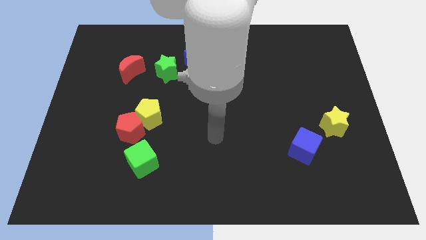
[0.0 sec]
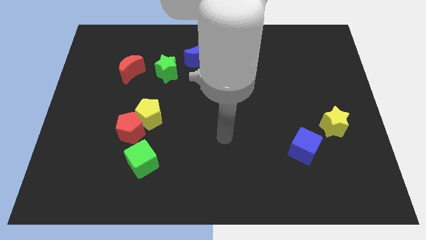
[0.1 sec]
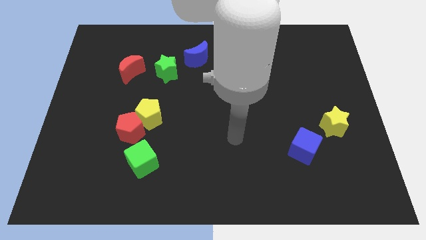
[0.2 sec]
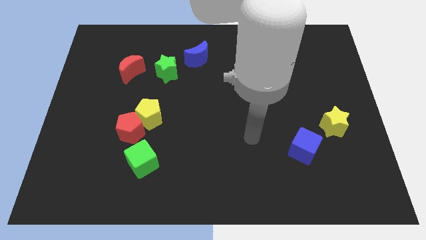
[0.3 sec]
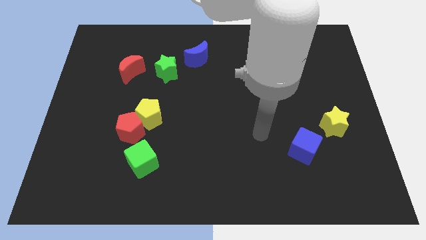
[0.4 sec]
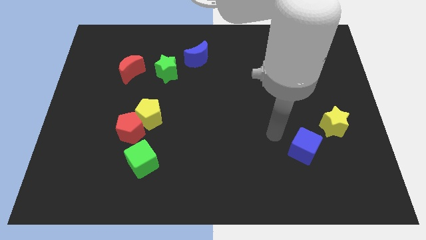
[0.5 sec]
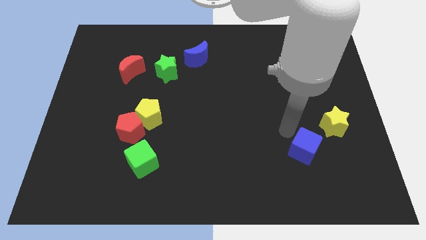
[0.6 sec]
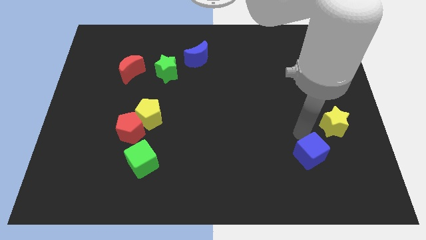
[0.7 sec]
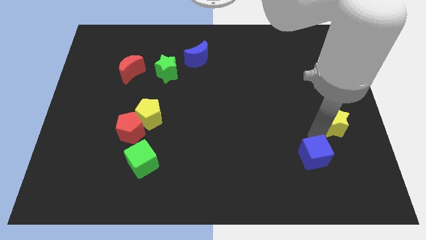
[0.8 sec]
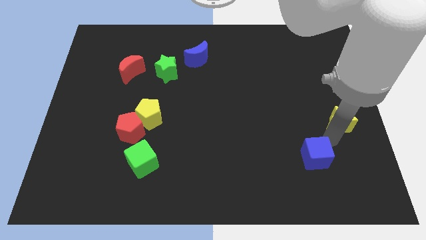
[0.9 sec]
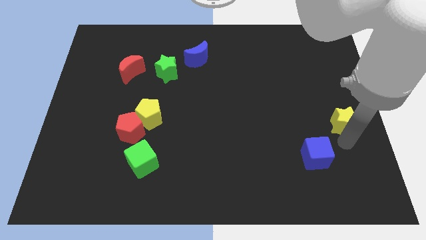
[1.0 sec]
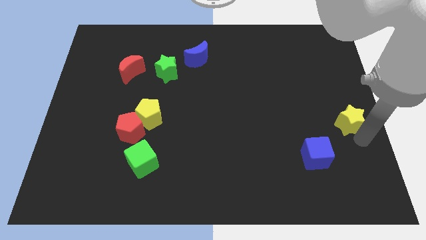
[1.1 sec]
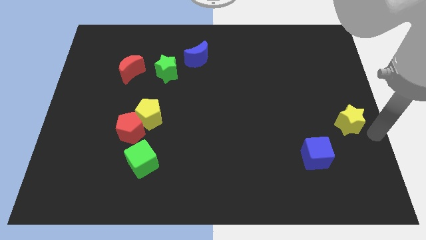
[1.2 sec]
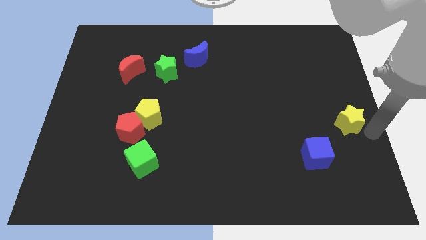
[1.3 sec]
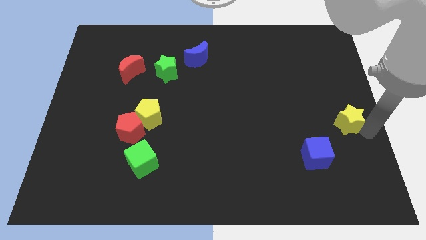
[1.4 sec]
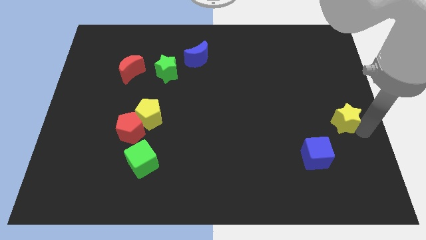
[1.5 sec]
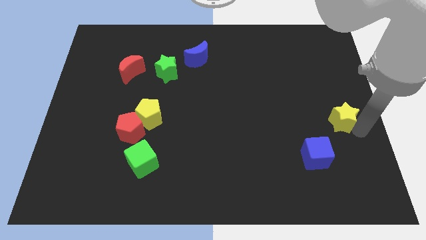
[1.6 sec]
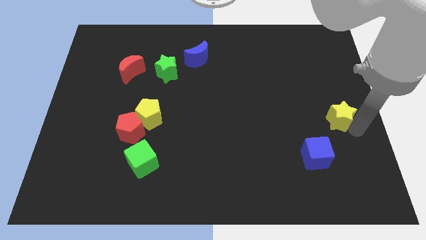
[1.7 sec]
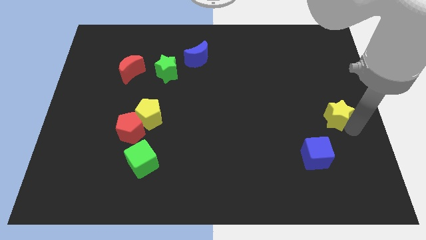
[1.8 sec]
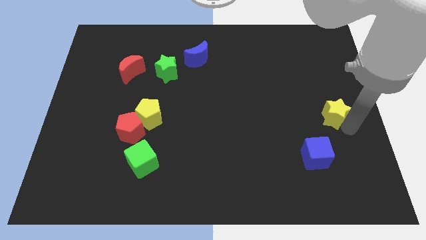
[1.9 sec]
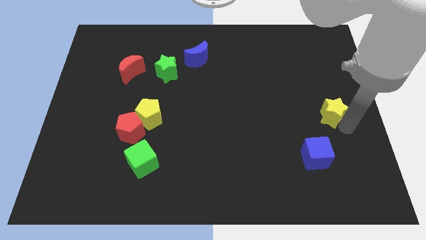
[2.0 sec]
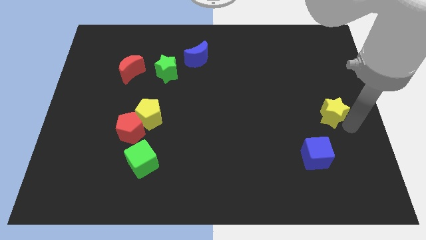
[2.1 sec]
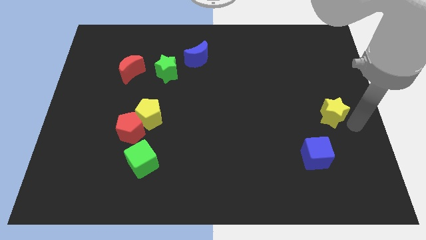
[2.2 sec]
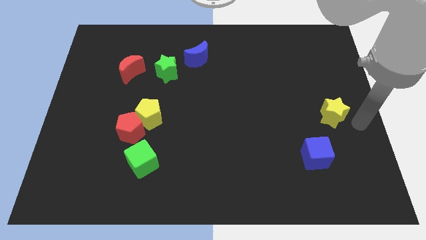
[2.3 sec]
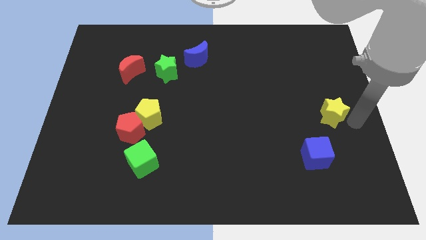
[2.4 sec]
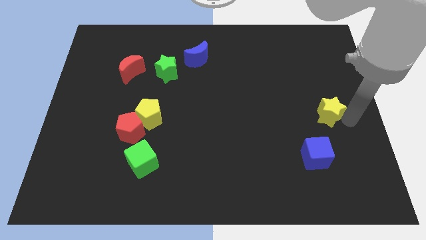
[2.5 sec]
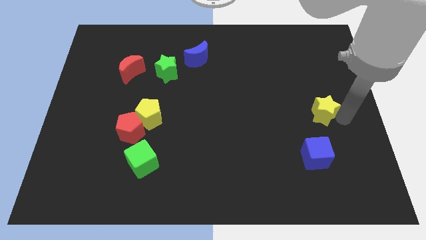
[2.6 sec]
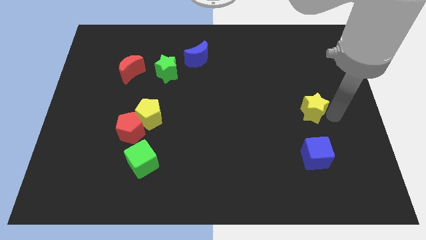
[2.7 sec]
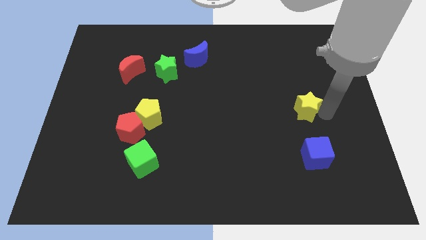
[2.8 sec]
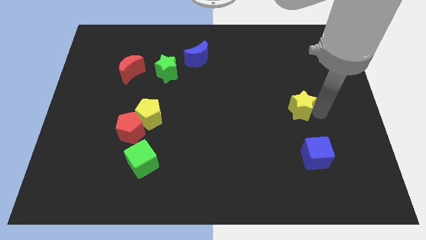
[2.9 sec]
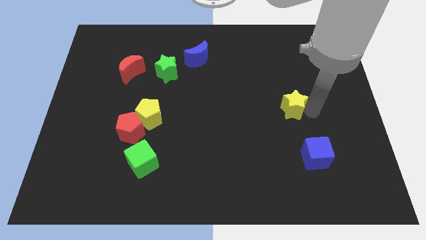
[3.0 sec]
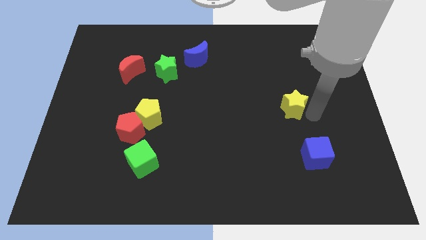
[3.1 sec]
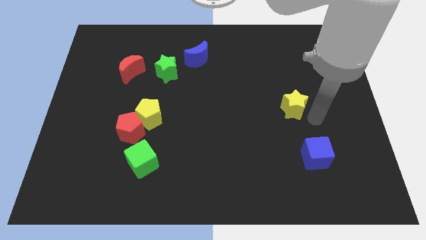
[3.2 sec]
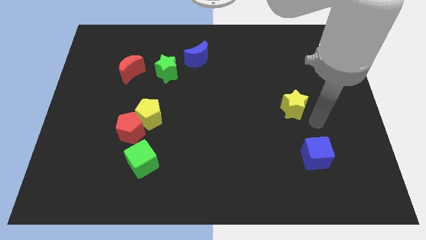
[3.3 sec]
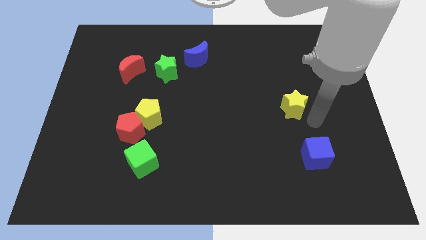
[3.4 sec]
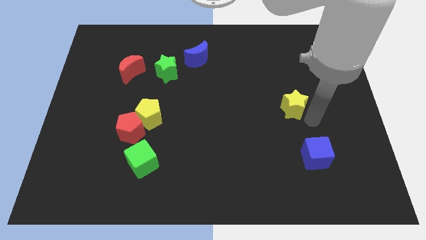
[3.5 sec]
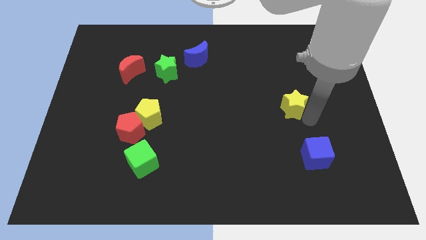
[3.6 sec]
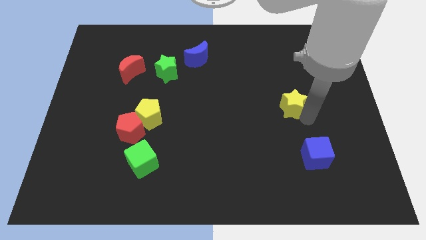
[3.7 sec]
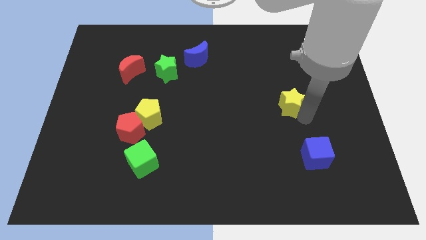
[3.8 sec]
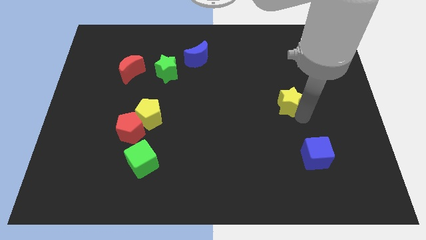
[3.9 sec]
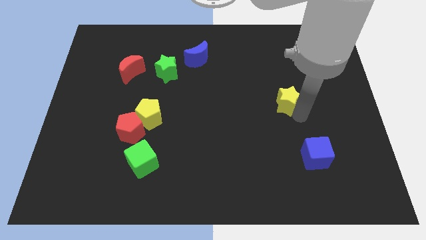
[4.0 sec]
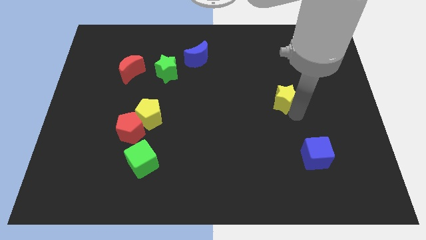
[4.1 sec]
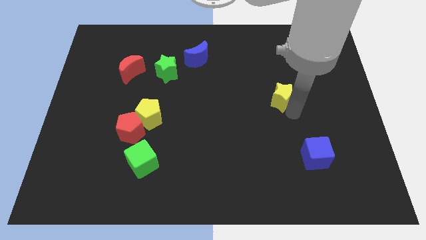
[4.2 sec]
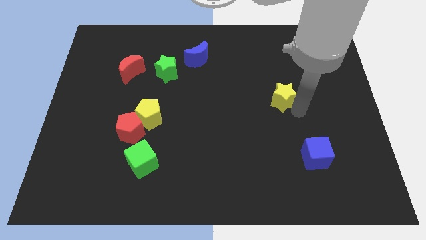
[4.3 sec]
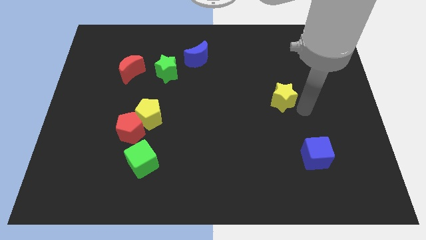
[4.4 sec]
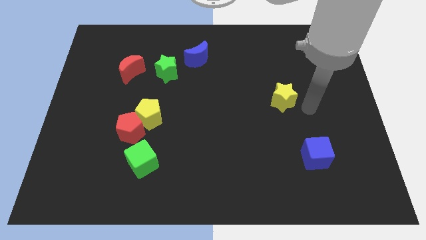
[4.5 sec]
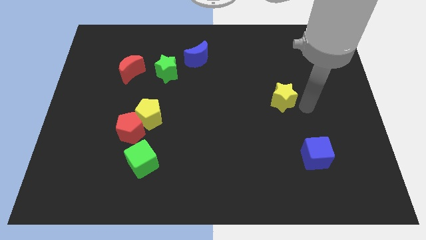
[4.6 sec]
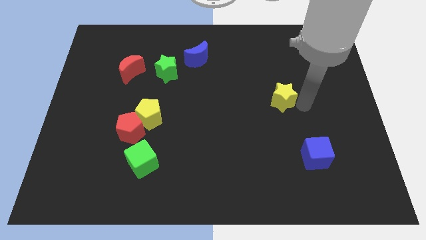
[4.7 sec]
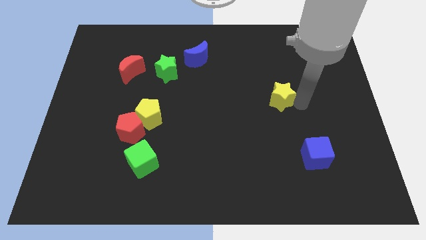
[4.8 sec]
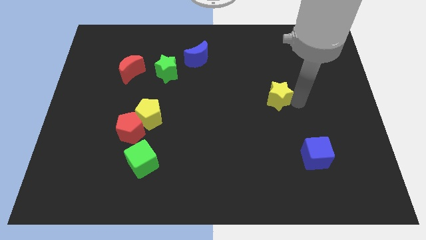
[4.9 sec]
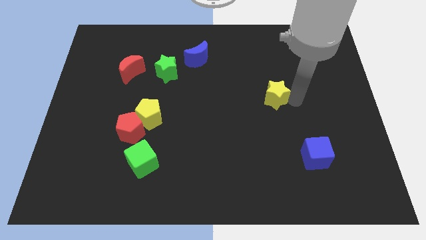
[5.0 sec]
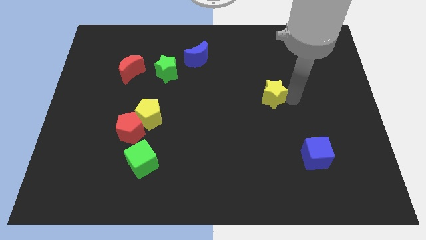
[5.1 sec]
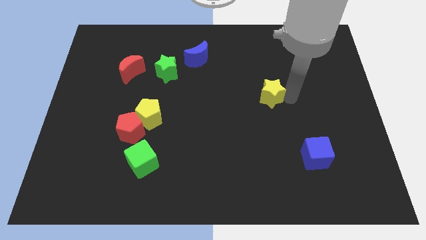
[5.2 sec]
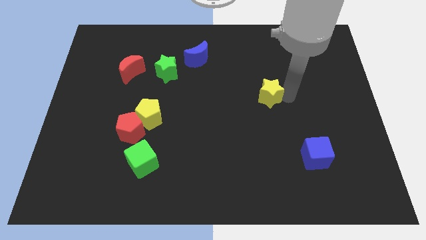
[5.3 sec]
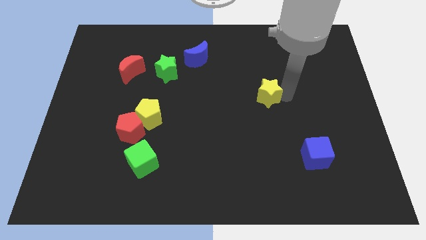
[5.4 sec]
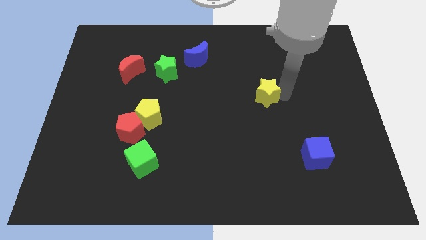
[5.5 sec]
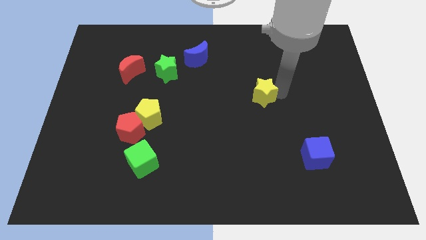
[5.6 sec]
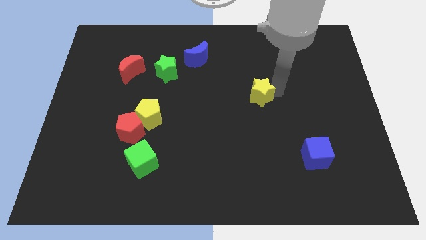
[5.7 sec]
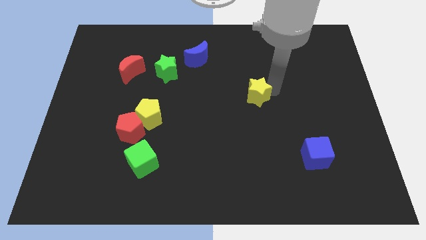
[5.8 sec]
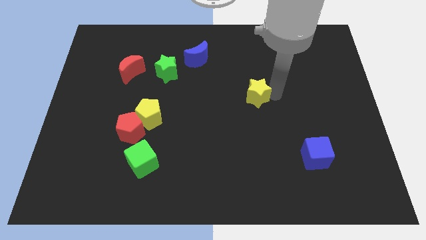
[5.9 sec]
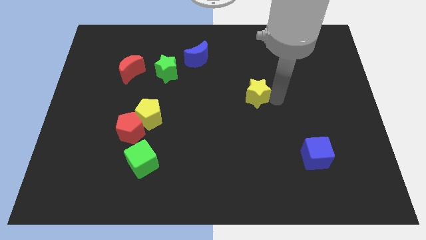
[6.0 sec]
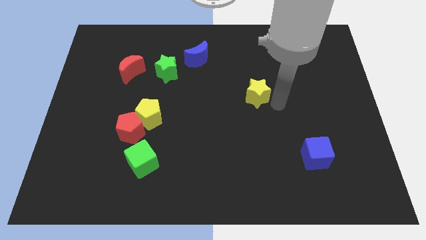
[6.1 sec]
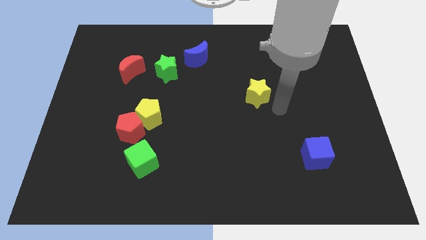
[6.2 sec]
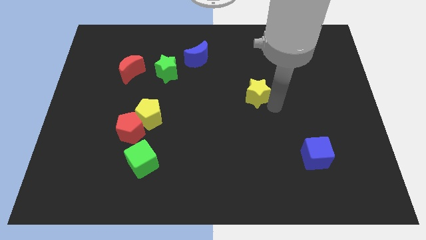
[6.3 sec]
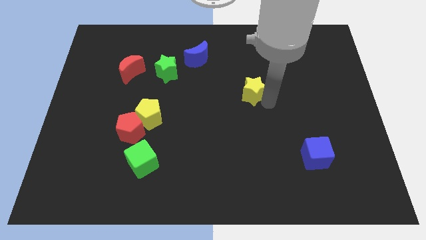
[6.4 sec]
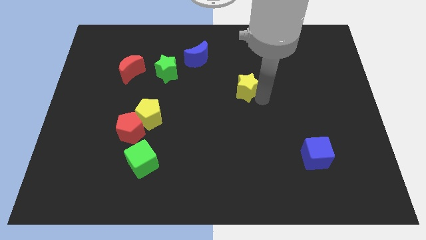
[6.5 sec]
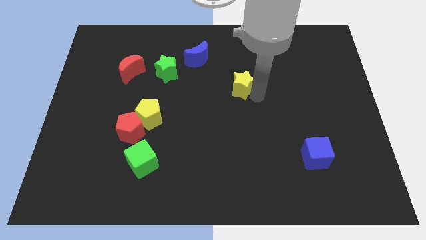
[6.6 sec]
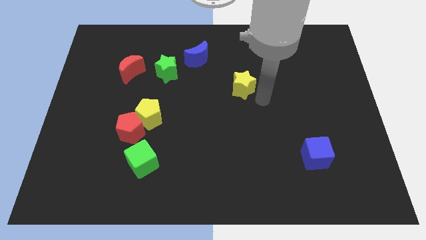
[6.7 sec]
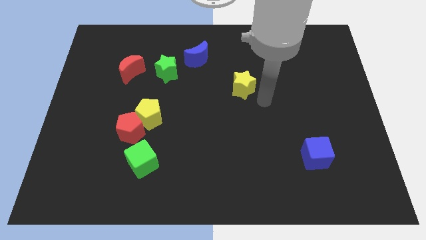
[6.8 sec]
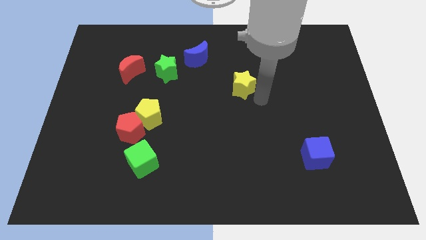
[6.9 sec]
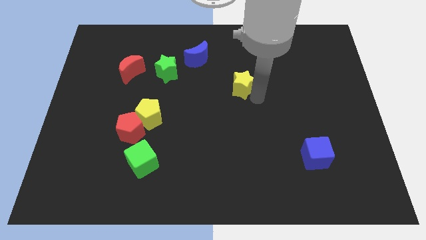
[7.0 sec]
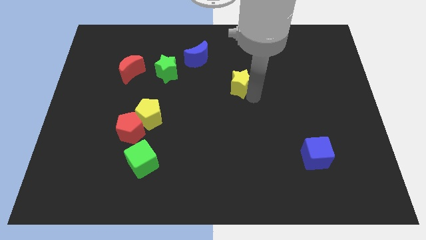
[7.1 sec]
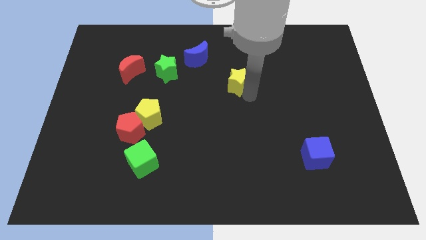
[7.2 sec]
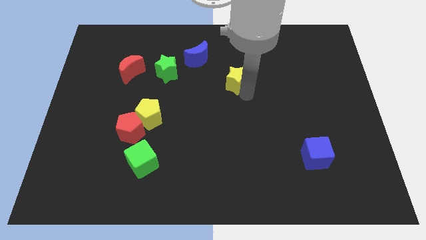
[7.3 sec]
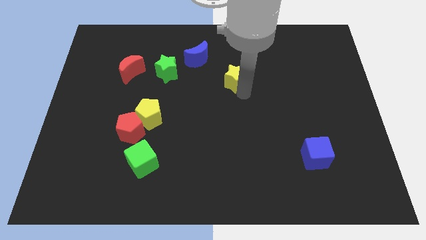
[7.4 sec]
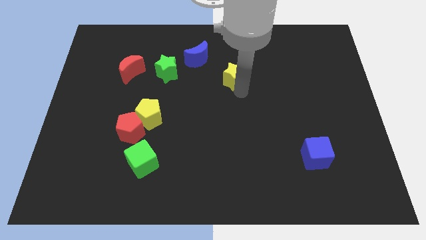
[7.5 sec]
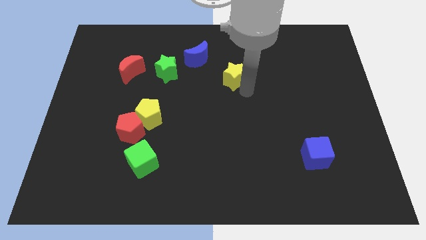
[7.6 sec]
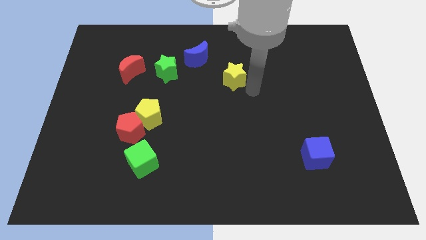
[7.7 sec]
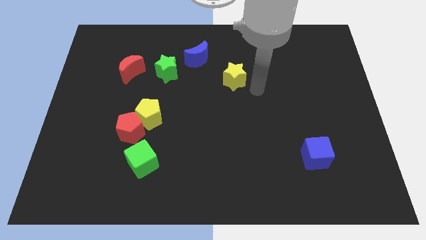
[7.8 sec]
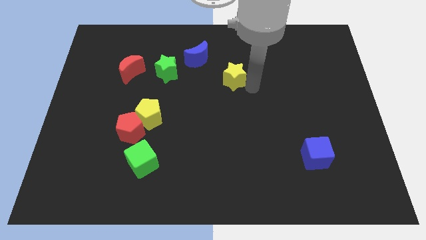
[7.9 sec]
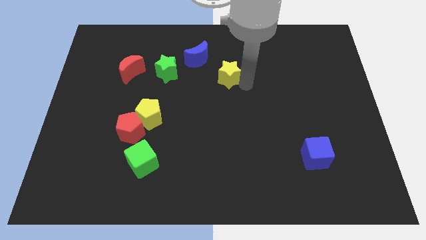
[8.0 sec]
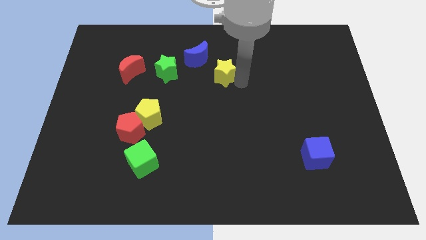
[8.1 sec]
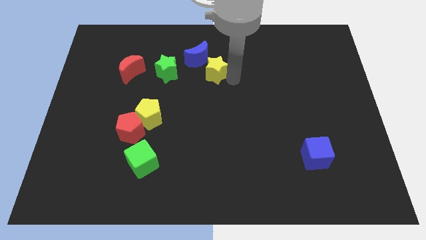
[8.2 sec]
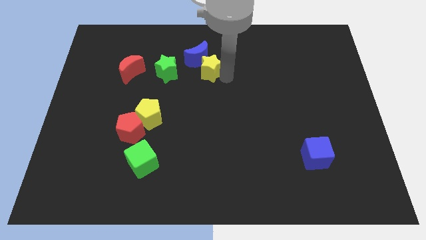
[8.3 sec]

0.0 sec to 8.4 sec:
move the yellow star close to the blue moon
